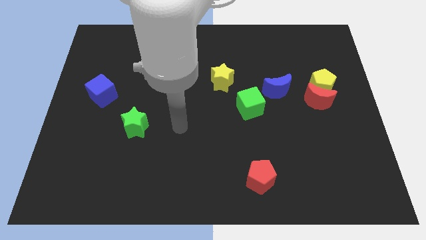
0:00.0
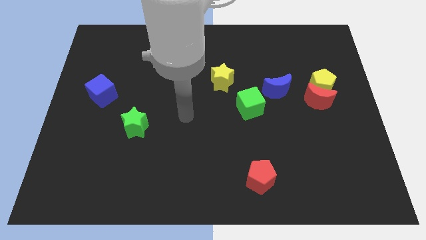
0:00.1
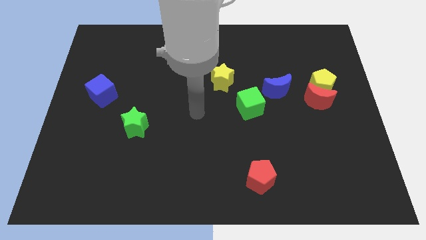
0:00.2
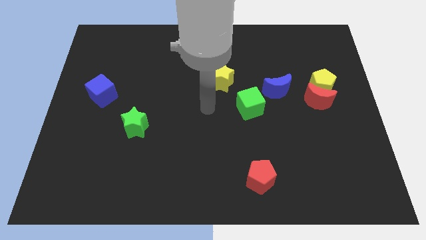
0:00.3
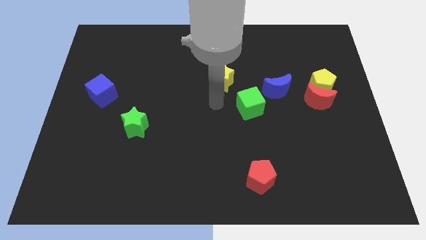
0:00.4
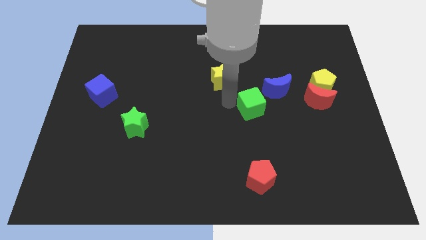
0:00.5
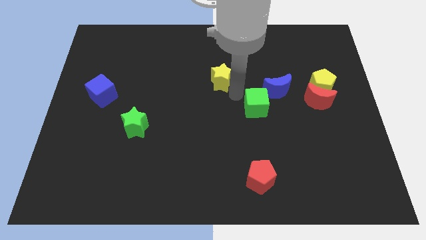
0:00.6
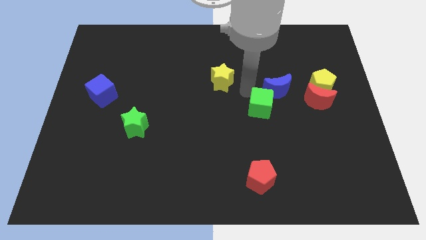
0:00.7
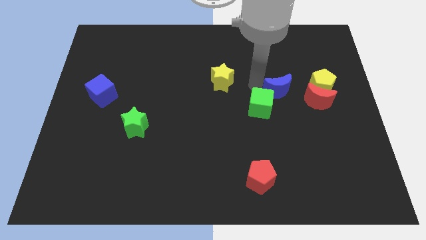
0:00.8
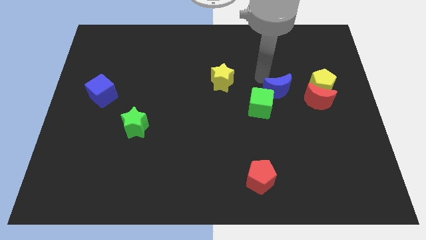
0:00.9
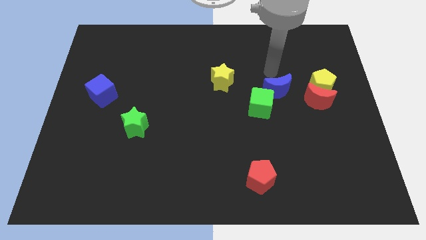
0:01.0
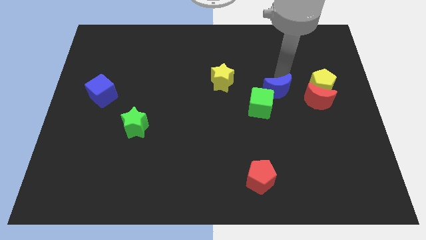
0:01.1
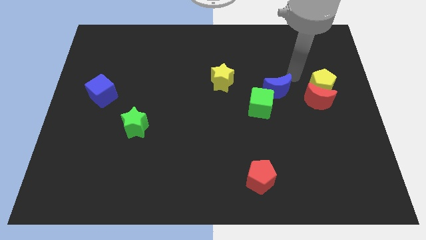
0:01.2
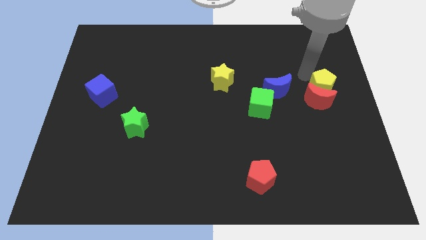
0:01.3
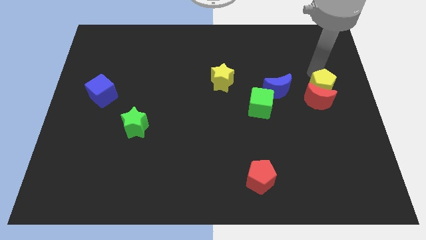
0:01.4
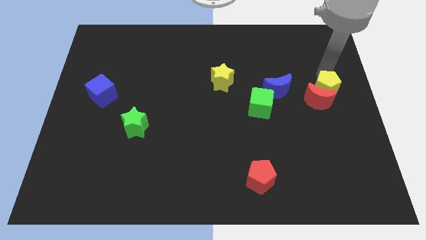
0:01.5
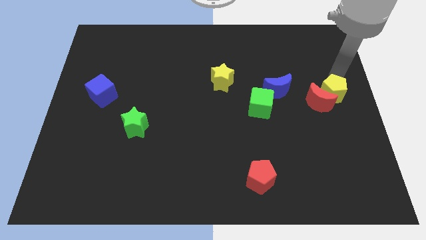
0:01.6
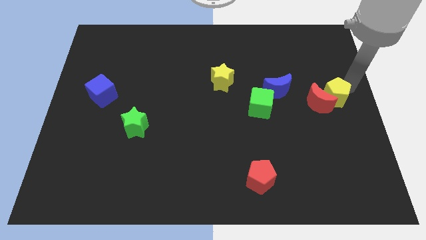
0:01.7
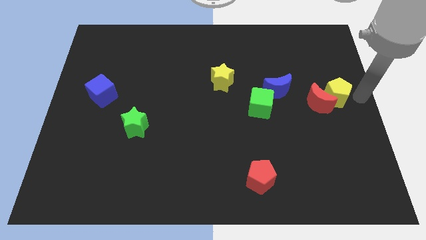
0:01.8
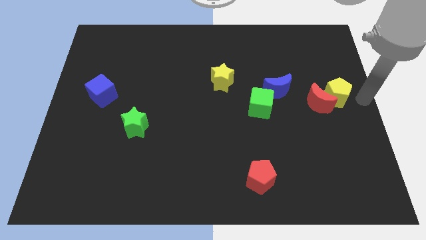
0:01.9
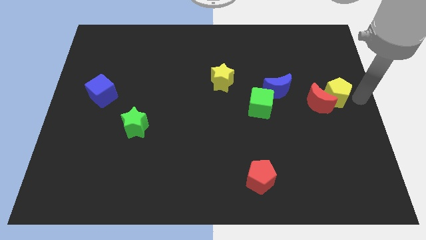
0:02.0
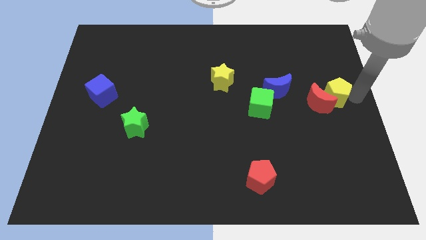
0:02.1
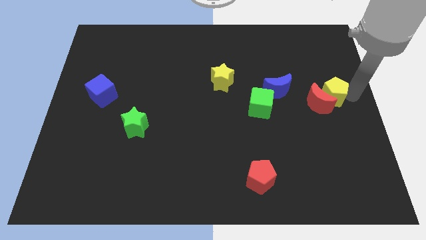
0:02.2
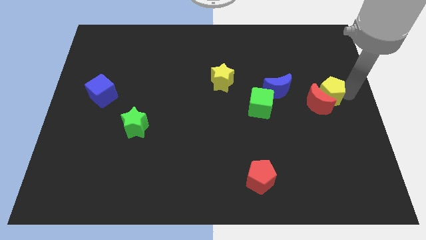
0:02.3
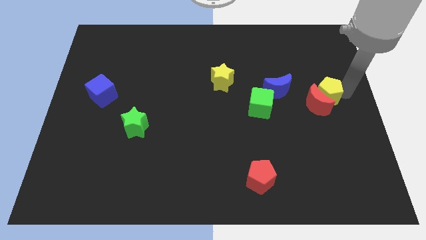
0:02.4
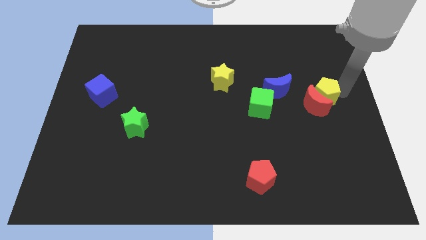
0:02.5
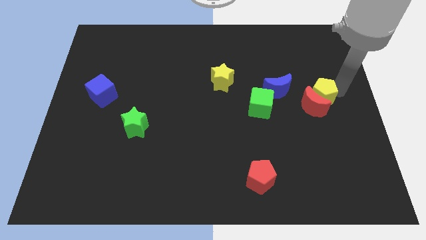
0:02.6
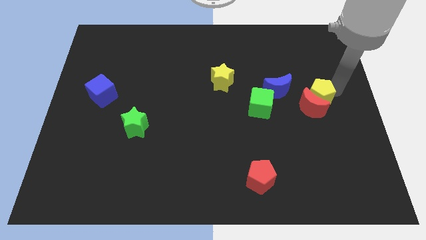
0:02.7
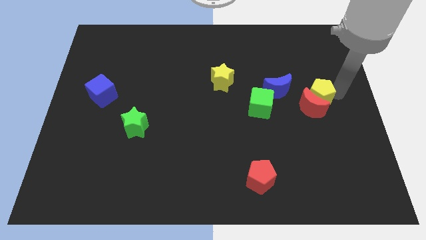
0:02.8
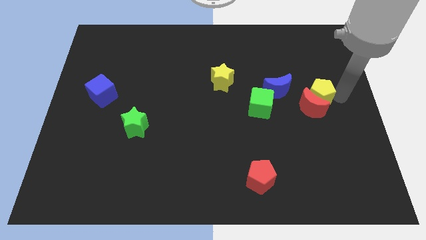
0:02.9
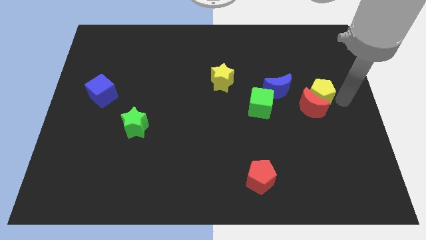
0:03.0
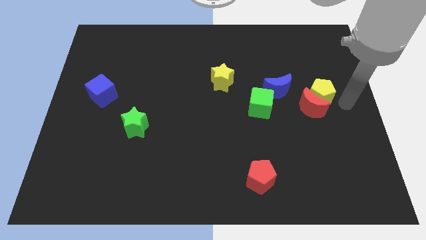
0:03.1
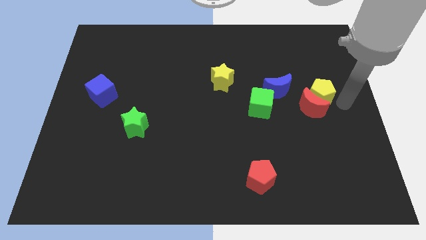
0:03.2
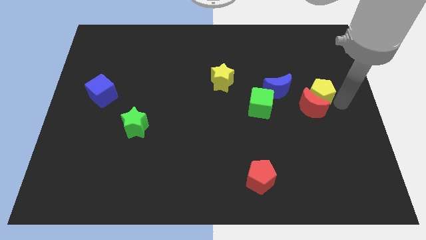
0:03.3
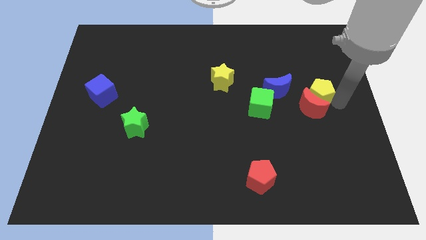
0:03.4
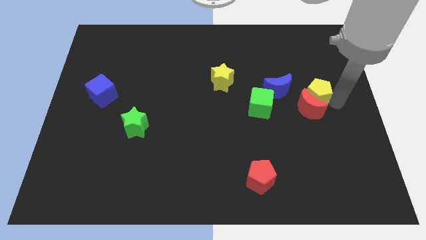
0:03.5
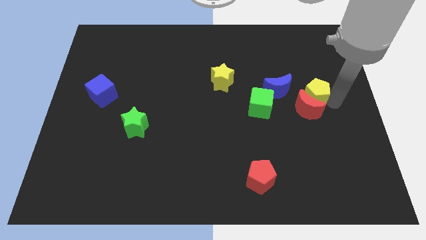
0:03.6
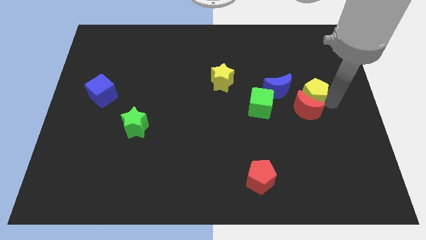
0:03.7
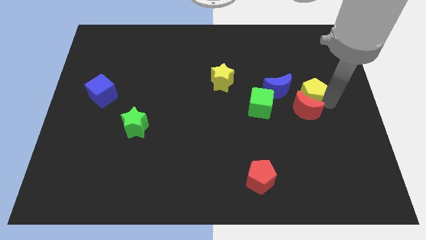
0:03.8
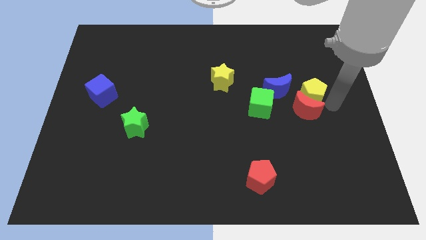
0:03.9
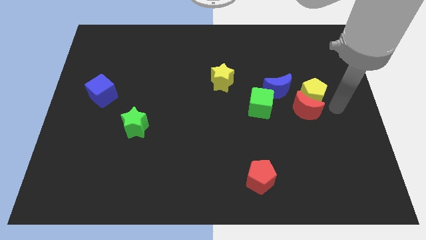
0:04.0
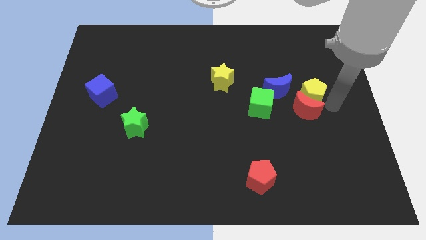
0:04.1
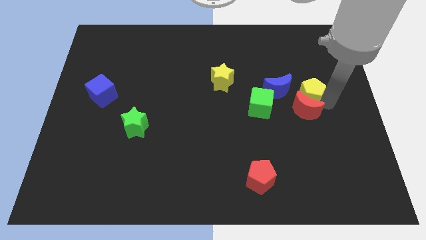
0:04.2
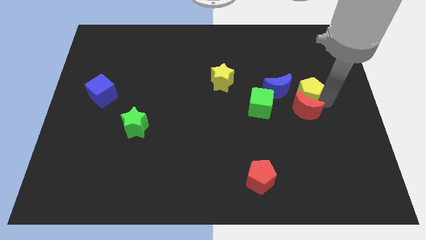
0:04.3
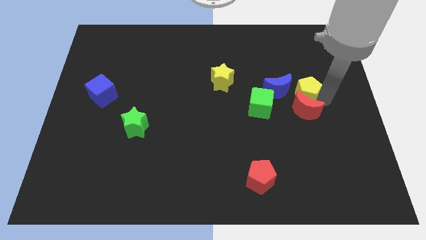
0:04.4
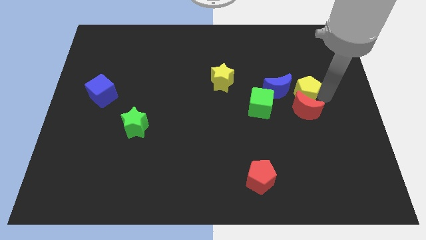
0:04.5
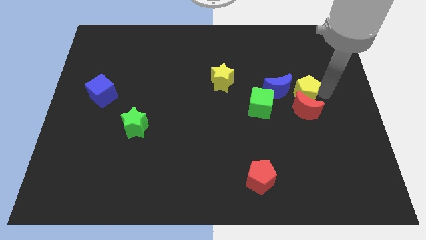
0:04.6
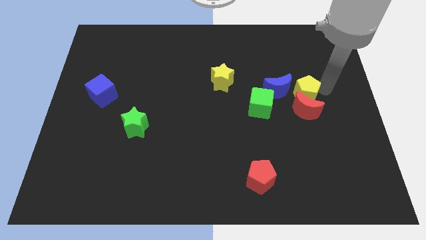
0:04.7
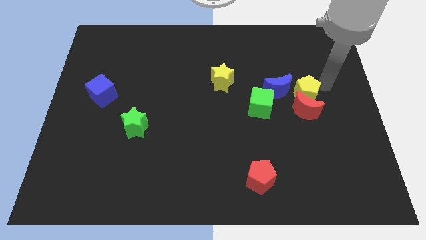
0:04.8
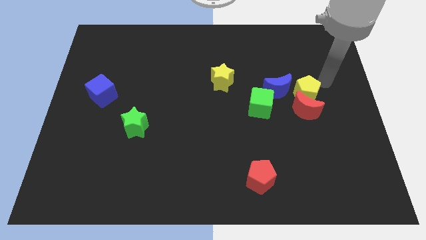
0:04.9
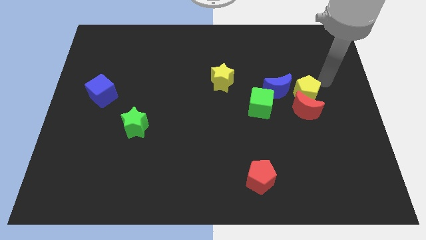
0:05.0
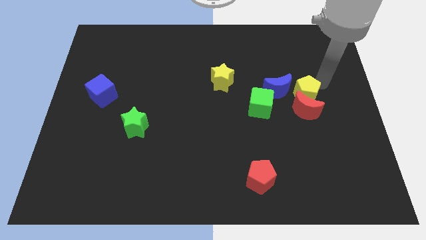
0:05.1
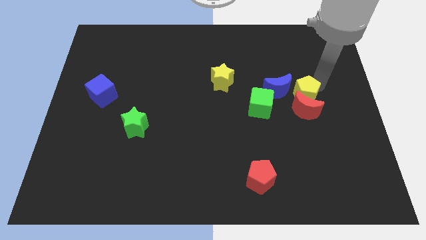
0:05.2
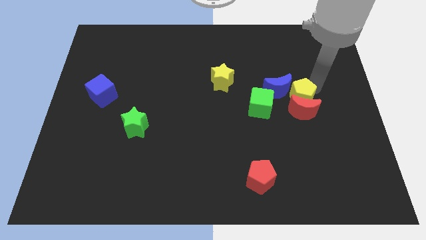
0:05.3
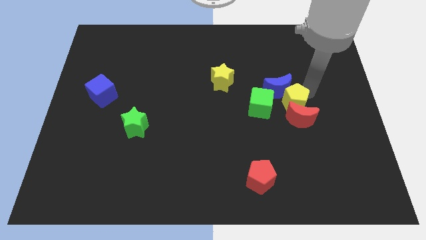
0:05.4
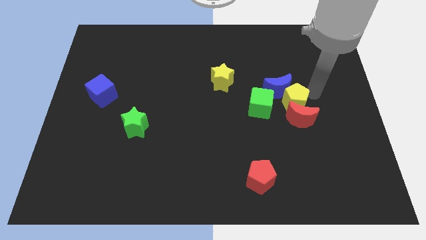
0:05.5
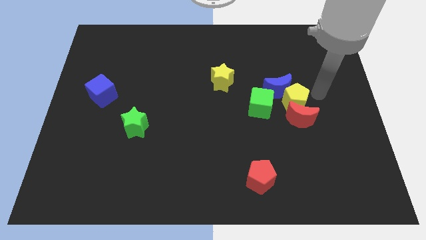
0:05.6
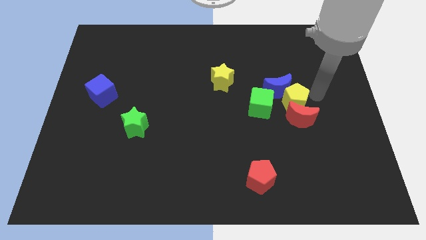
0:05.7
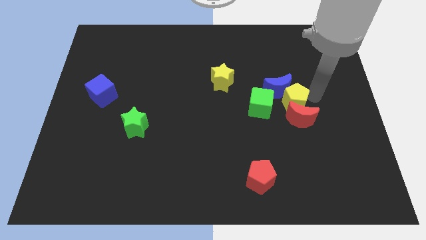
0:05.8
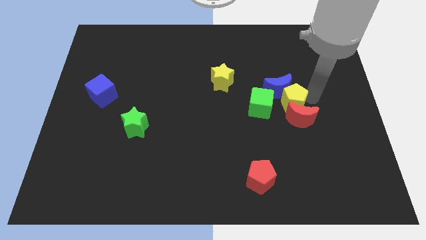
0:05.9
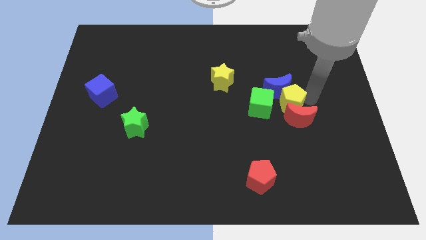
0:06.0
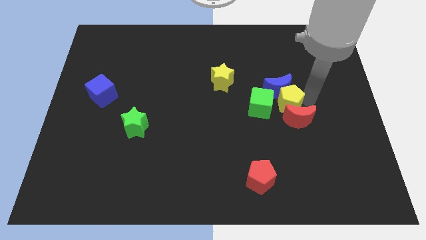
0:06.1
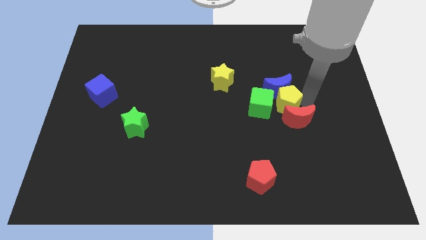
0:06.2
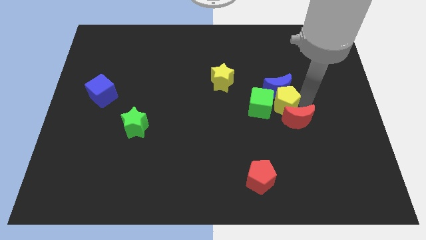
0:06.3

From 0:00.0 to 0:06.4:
move the yellow pentagon close to the green cube
